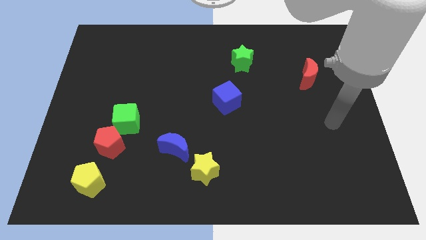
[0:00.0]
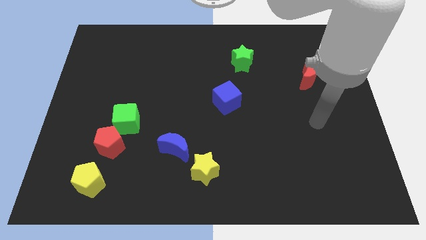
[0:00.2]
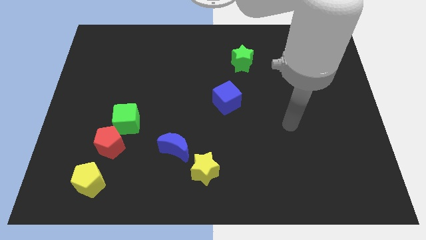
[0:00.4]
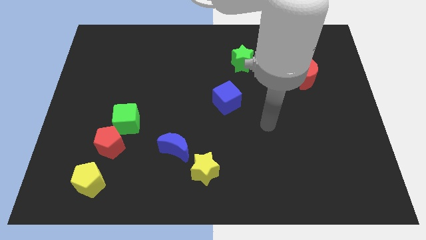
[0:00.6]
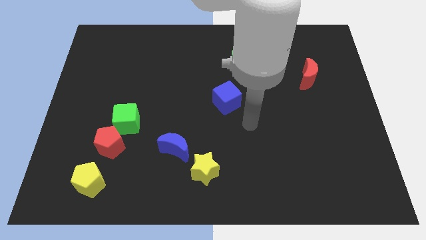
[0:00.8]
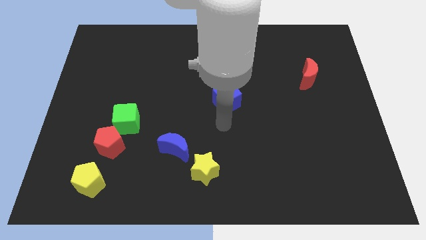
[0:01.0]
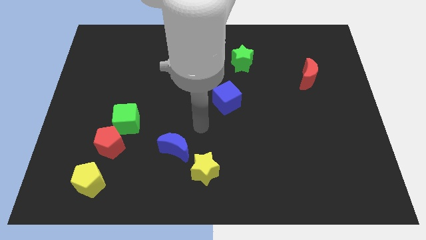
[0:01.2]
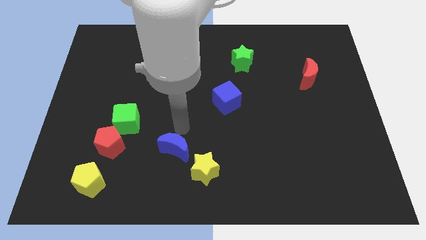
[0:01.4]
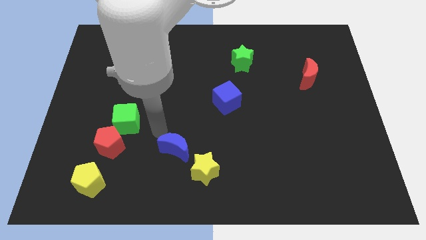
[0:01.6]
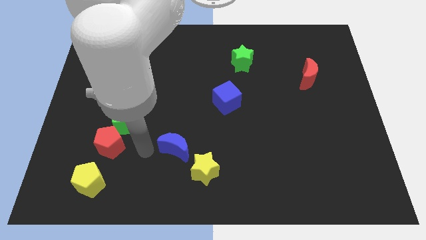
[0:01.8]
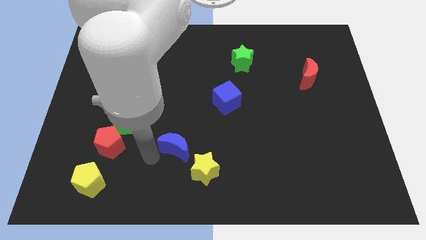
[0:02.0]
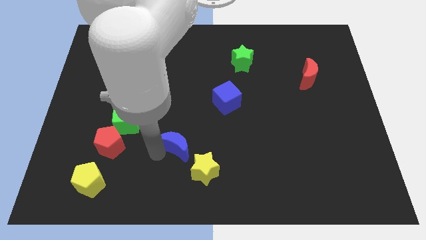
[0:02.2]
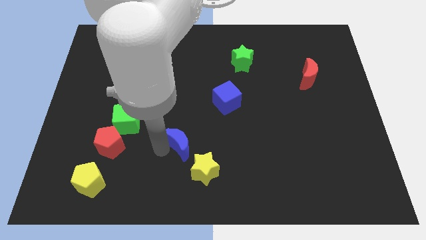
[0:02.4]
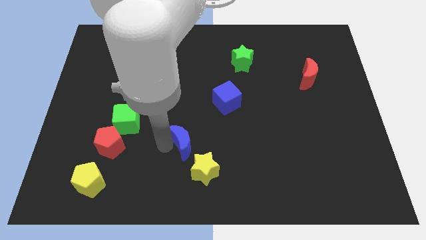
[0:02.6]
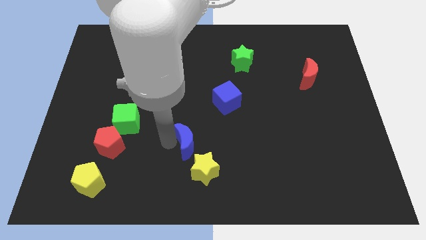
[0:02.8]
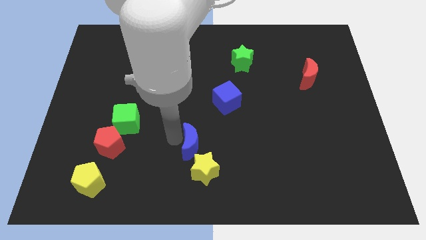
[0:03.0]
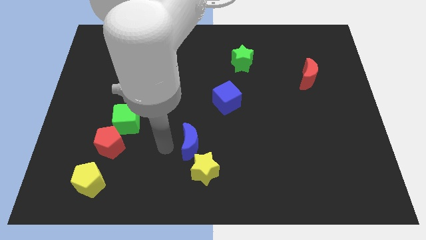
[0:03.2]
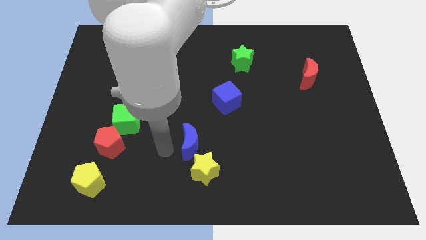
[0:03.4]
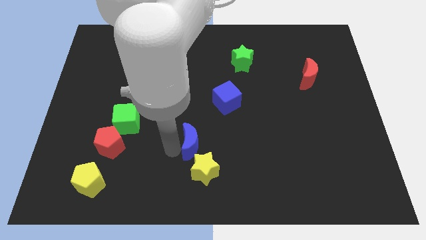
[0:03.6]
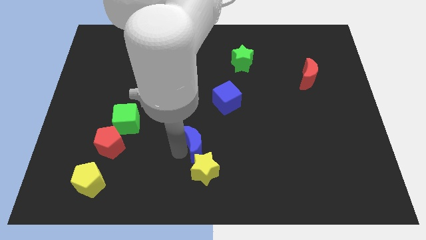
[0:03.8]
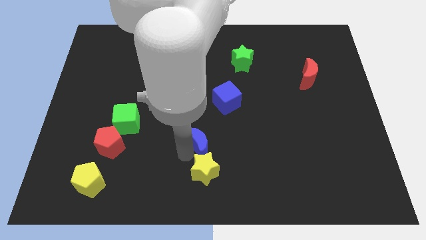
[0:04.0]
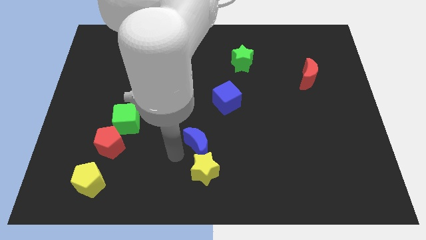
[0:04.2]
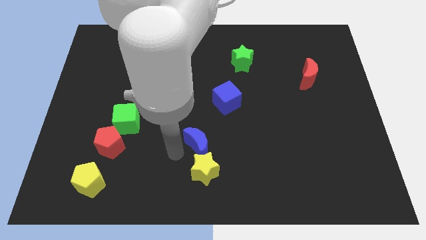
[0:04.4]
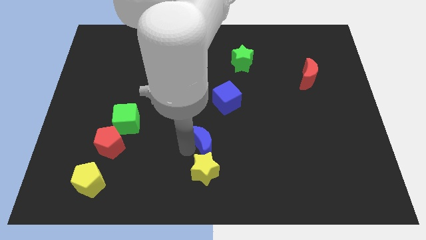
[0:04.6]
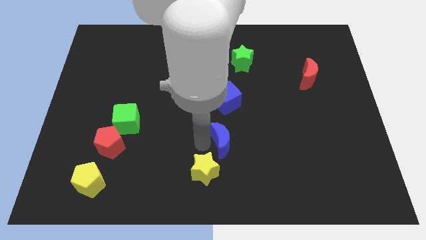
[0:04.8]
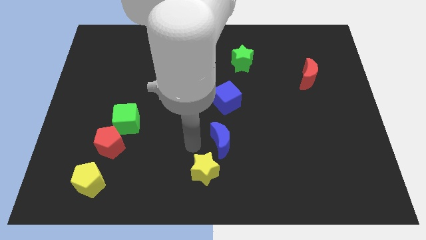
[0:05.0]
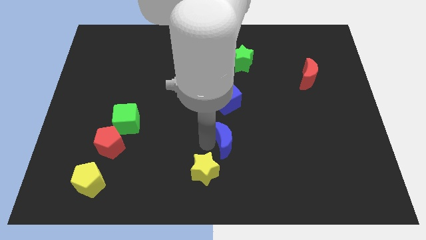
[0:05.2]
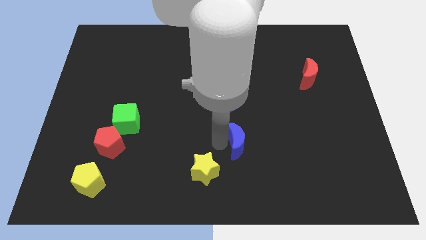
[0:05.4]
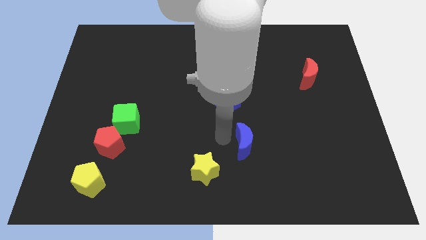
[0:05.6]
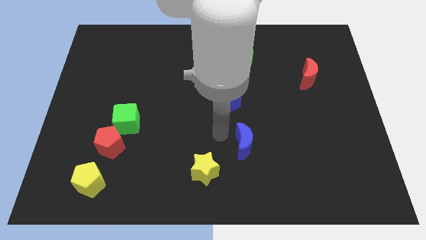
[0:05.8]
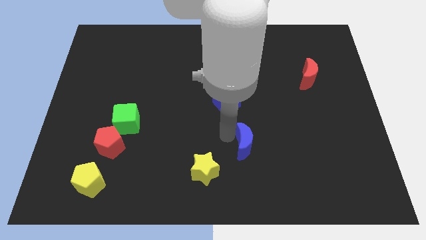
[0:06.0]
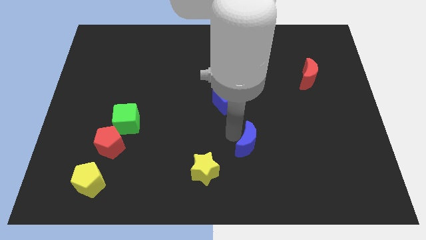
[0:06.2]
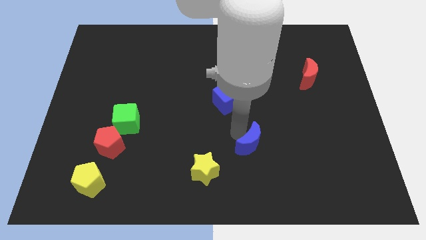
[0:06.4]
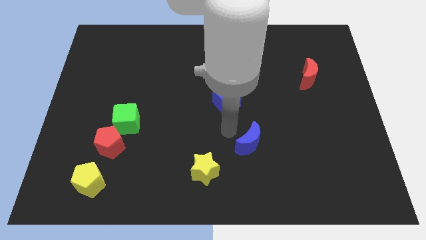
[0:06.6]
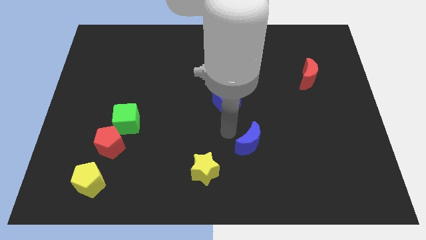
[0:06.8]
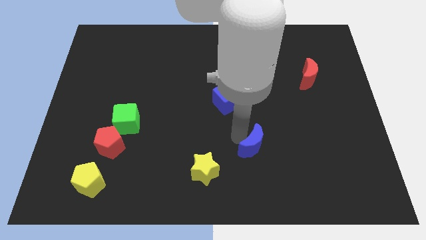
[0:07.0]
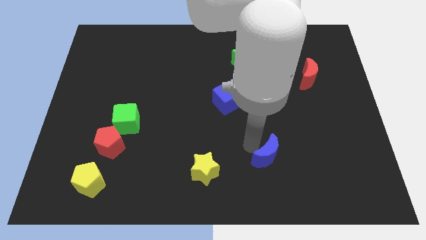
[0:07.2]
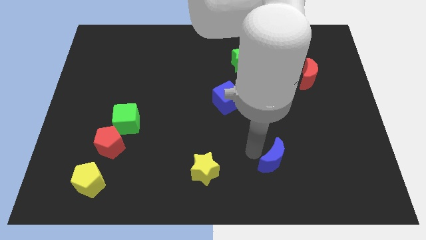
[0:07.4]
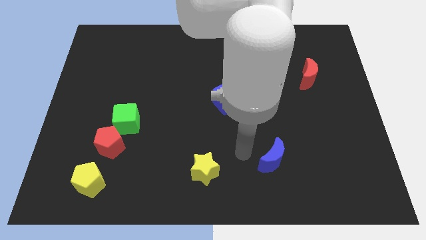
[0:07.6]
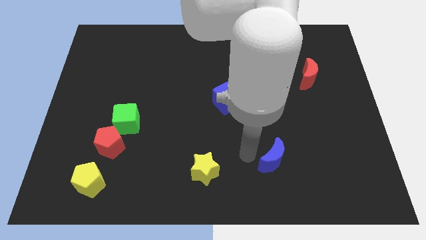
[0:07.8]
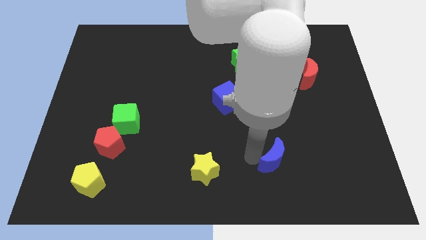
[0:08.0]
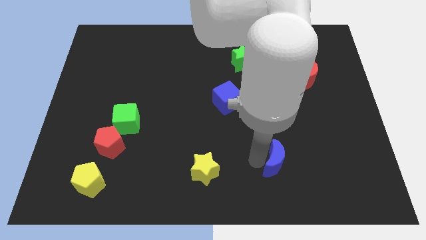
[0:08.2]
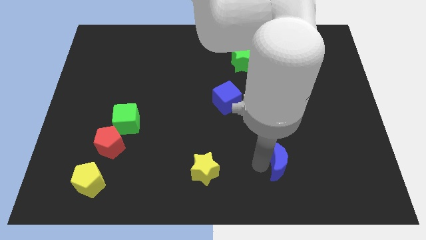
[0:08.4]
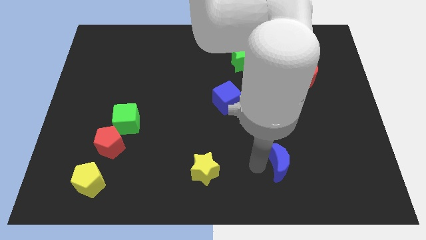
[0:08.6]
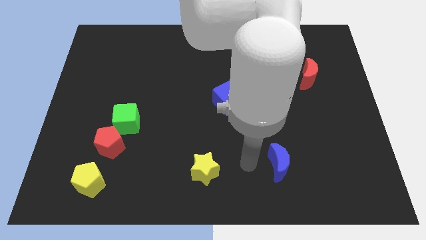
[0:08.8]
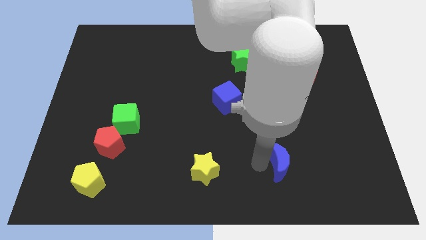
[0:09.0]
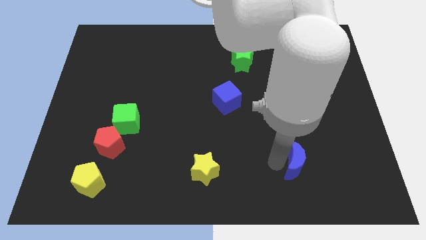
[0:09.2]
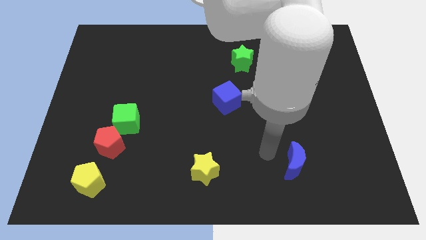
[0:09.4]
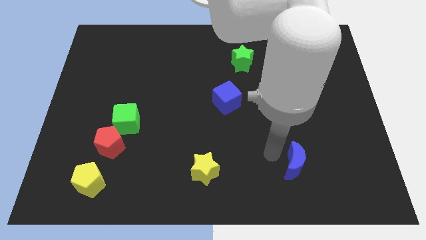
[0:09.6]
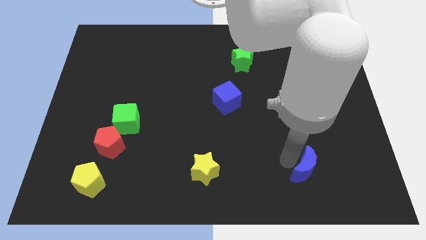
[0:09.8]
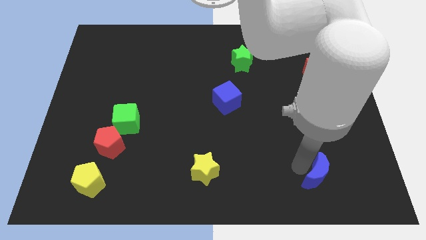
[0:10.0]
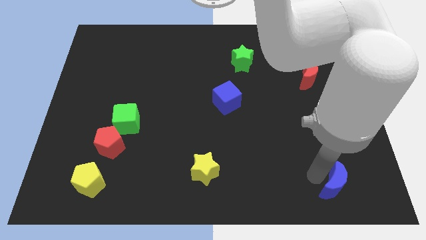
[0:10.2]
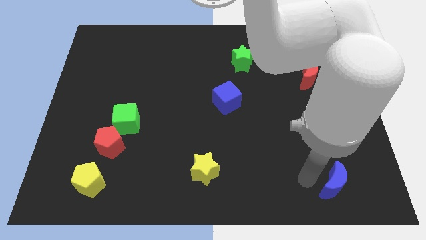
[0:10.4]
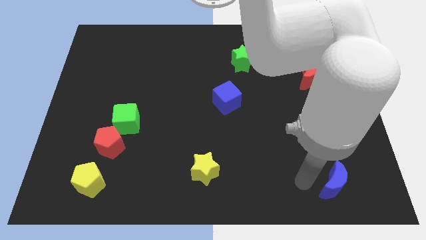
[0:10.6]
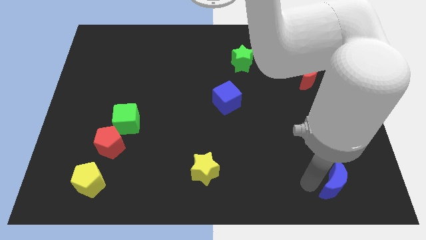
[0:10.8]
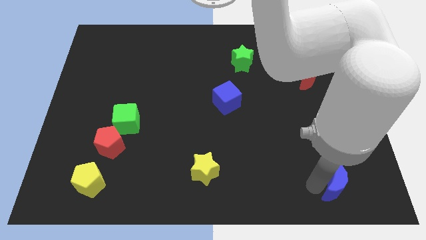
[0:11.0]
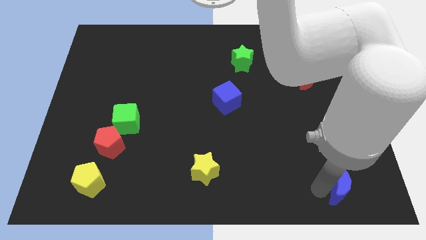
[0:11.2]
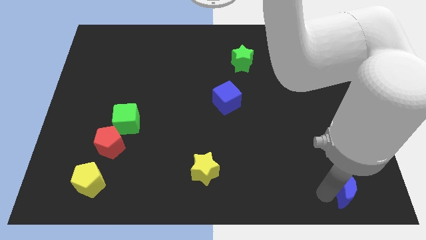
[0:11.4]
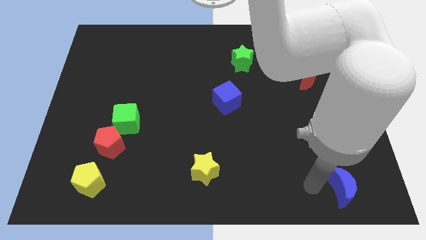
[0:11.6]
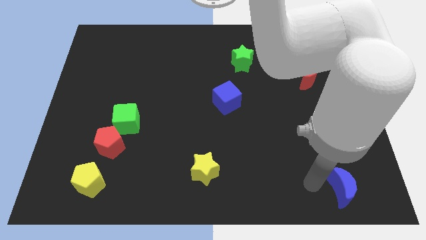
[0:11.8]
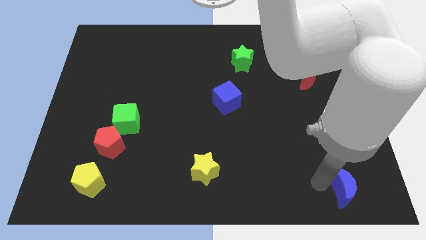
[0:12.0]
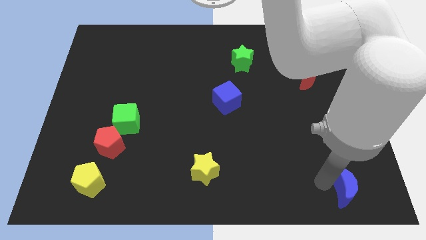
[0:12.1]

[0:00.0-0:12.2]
slide the blue moon to the bottom right

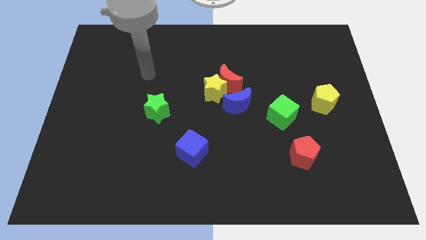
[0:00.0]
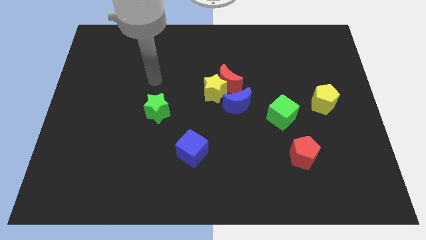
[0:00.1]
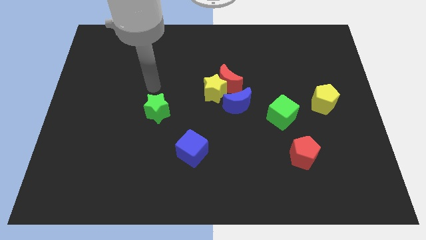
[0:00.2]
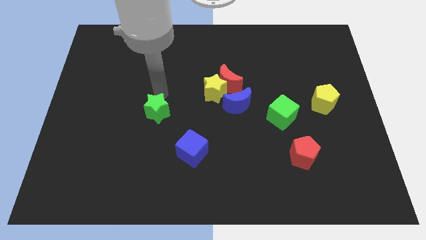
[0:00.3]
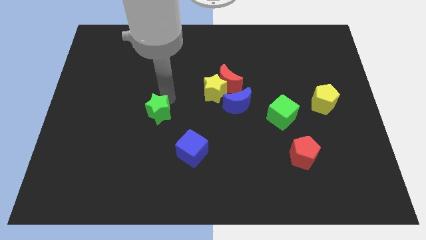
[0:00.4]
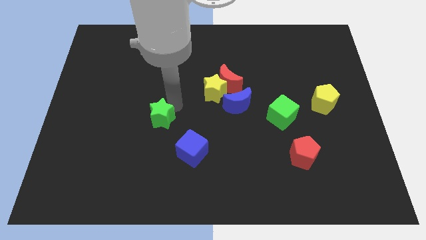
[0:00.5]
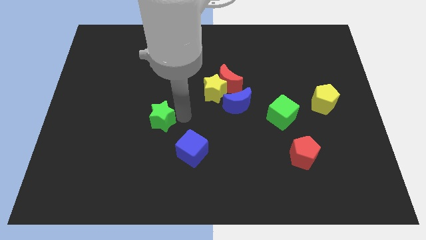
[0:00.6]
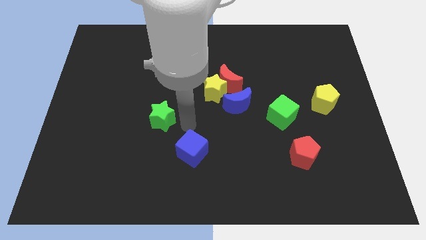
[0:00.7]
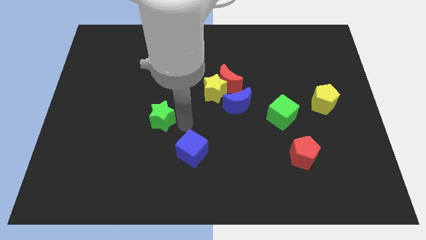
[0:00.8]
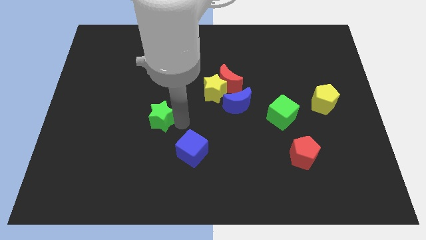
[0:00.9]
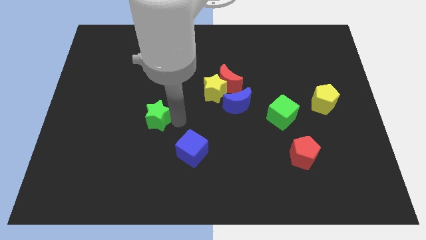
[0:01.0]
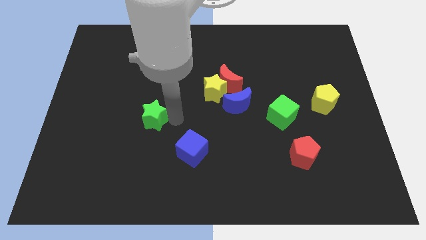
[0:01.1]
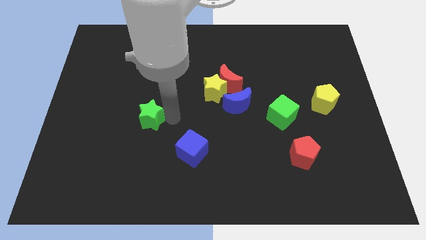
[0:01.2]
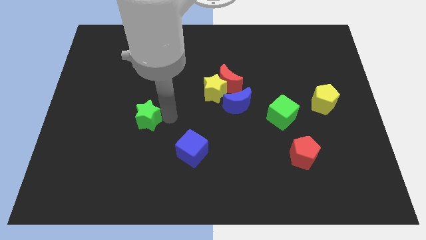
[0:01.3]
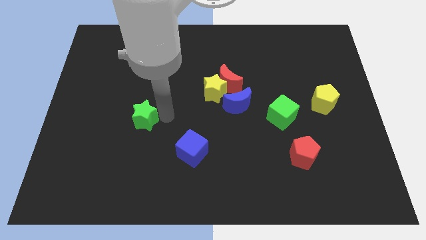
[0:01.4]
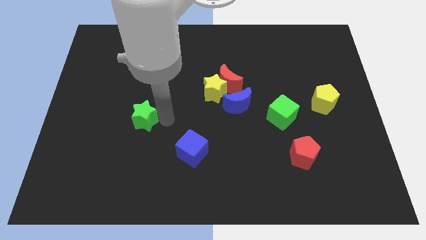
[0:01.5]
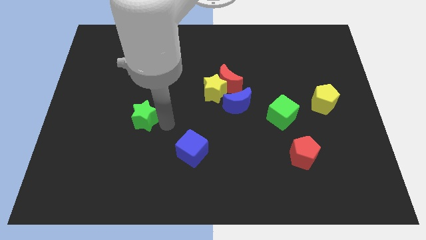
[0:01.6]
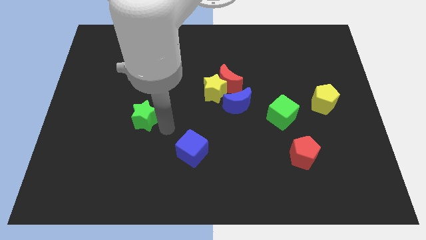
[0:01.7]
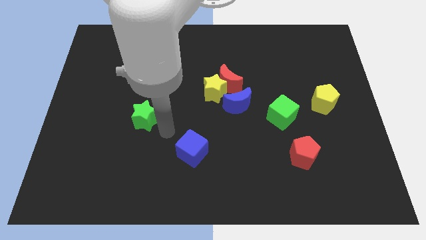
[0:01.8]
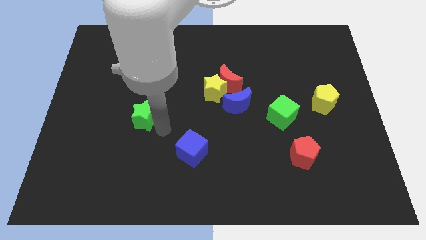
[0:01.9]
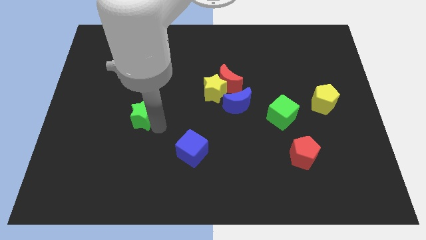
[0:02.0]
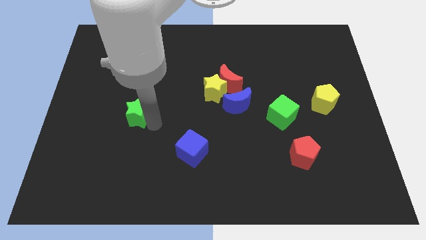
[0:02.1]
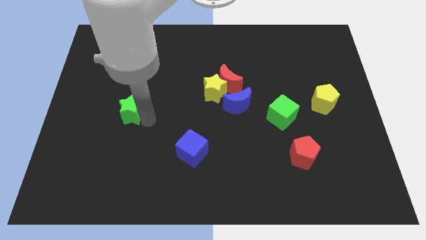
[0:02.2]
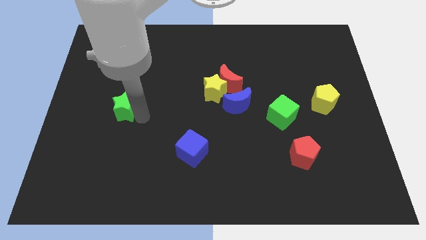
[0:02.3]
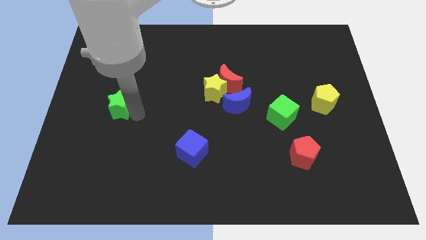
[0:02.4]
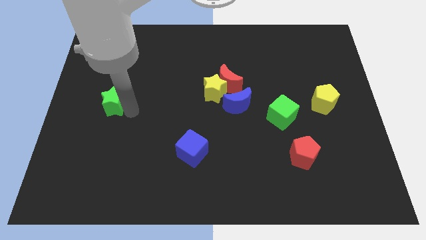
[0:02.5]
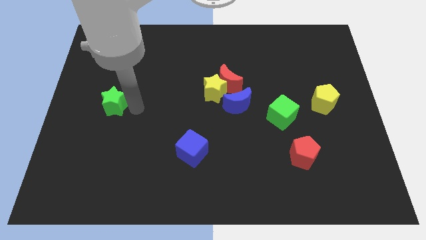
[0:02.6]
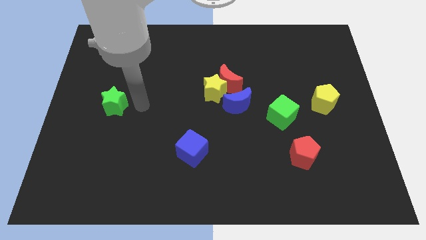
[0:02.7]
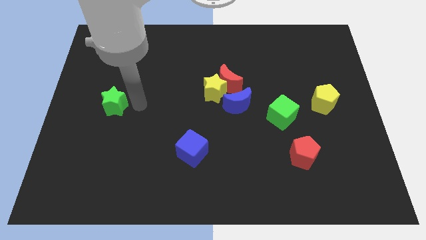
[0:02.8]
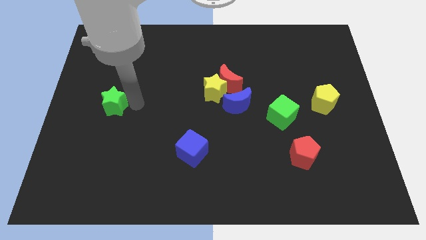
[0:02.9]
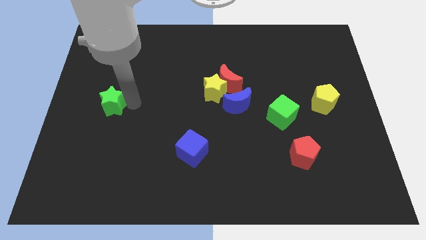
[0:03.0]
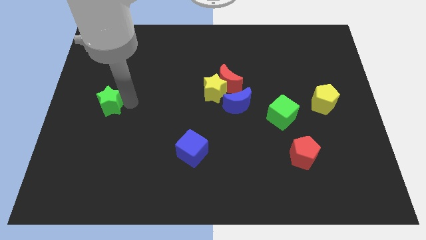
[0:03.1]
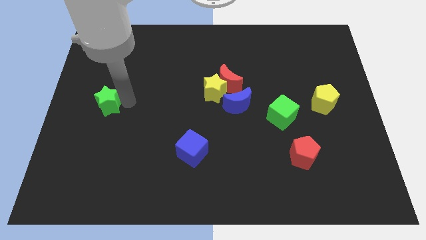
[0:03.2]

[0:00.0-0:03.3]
move the green star to the center left
